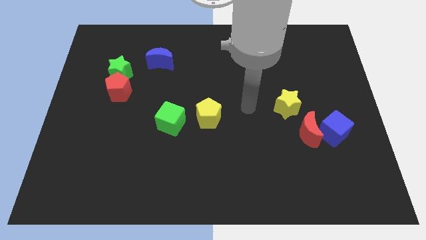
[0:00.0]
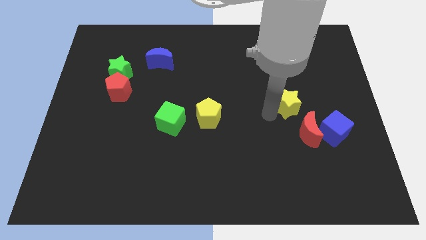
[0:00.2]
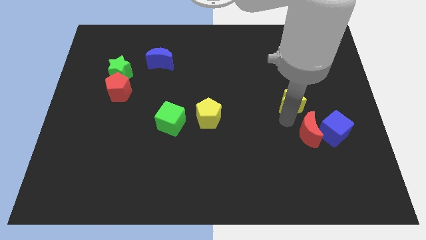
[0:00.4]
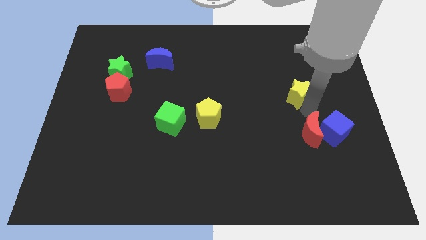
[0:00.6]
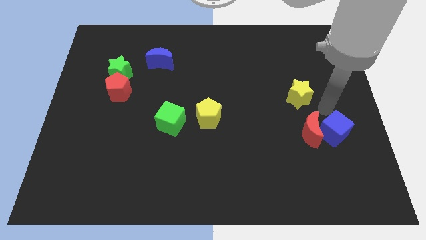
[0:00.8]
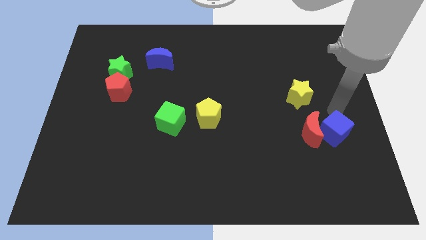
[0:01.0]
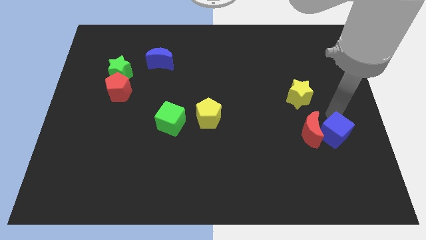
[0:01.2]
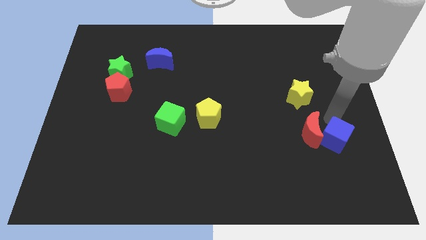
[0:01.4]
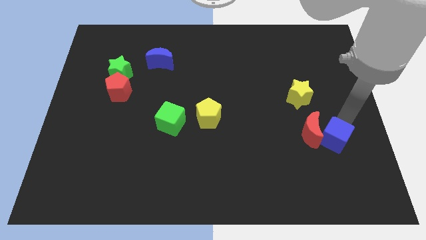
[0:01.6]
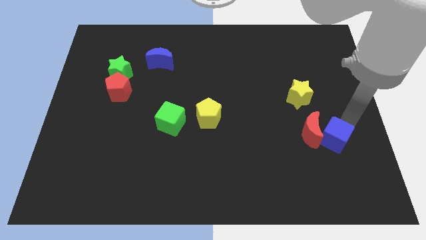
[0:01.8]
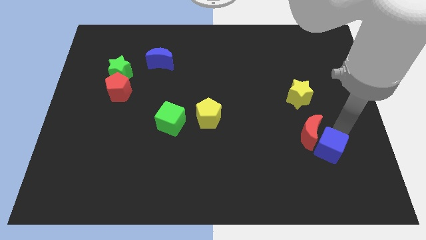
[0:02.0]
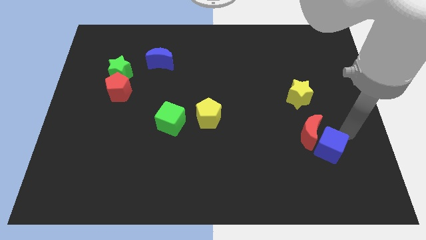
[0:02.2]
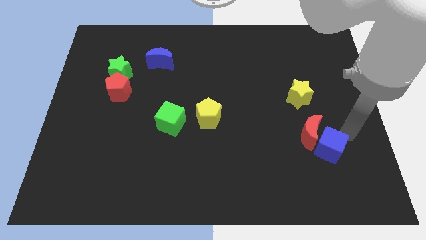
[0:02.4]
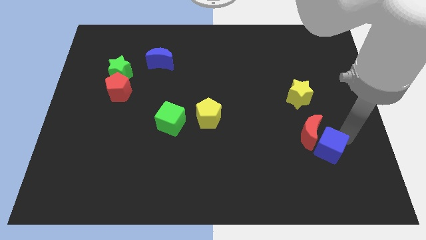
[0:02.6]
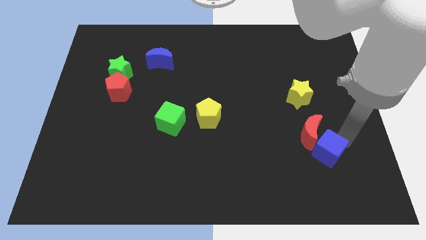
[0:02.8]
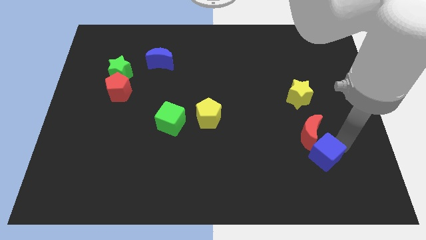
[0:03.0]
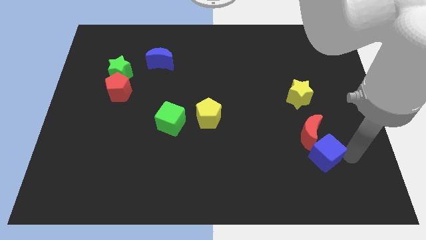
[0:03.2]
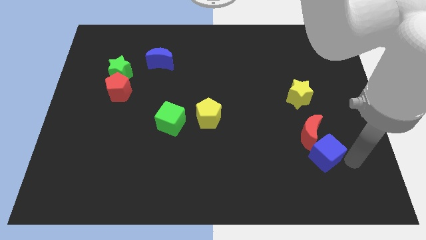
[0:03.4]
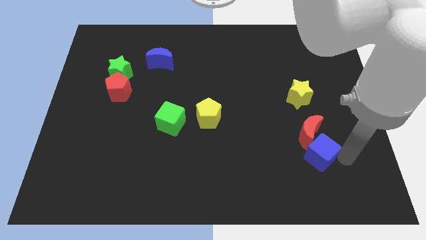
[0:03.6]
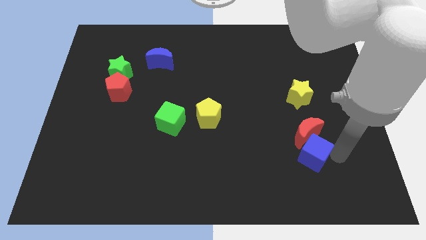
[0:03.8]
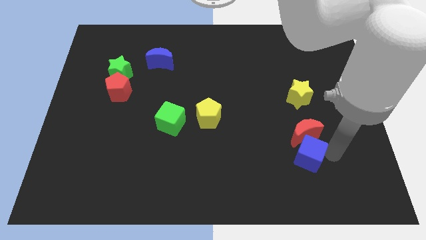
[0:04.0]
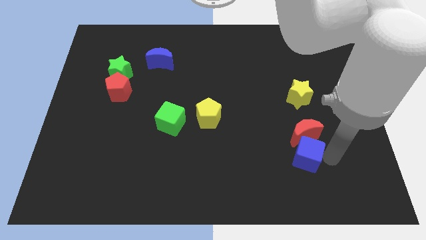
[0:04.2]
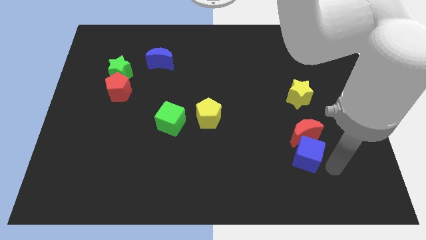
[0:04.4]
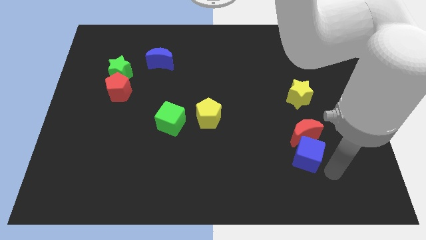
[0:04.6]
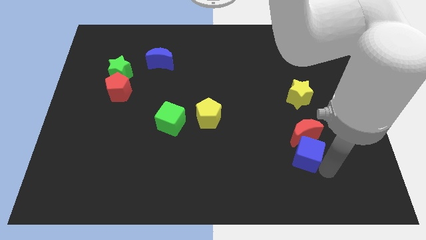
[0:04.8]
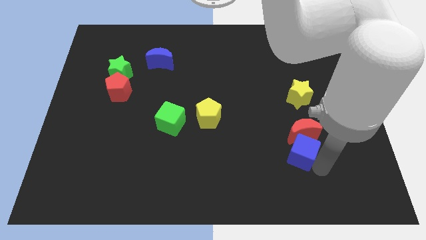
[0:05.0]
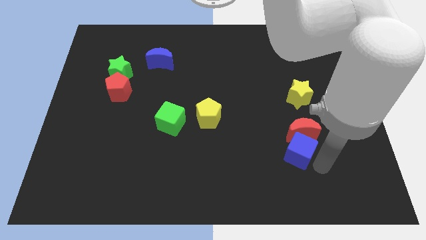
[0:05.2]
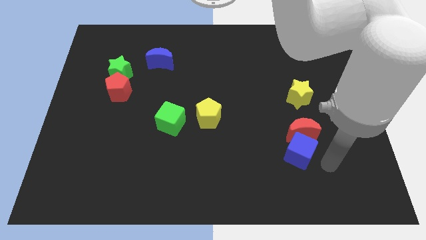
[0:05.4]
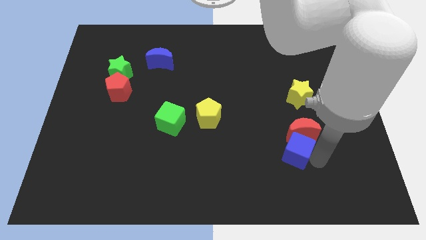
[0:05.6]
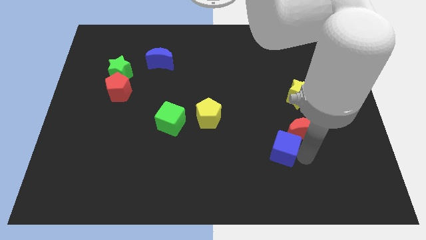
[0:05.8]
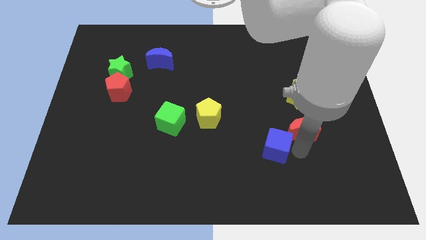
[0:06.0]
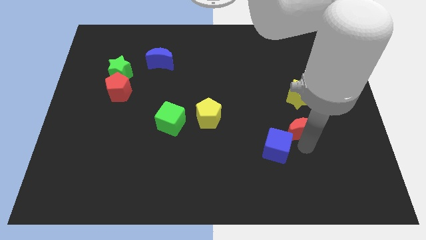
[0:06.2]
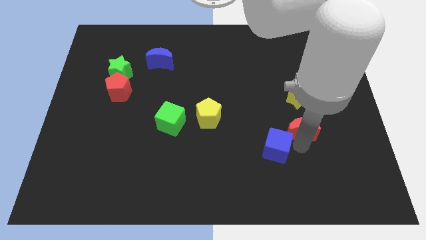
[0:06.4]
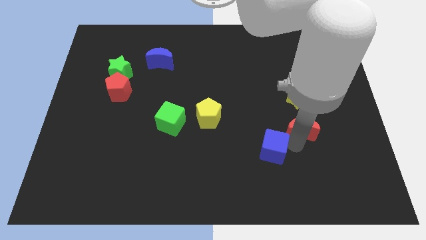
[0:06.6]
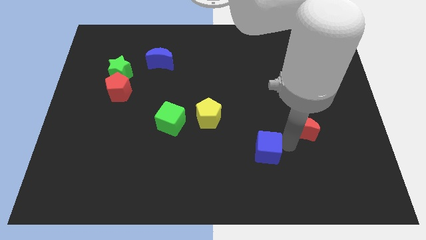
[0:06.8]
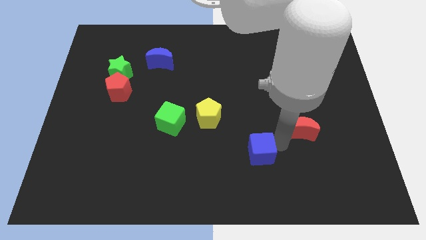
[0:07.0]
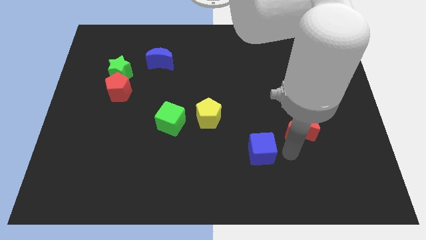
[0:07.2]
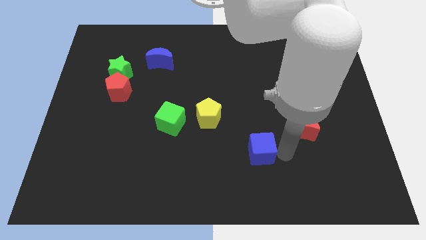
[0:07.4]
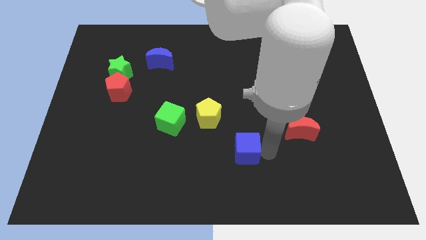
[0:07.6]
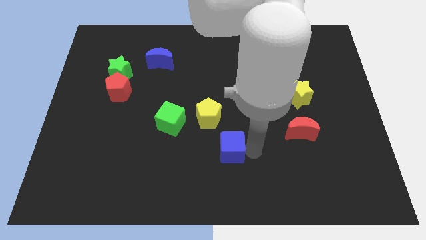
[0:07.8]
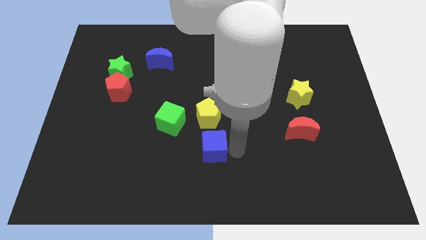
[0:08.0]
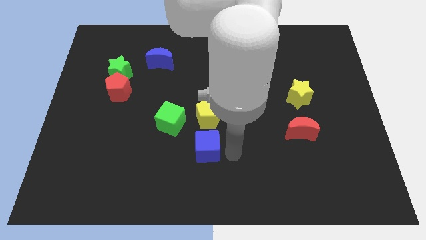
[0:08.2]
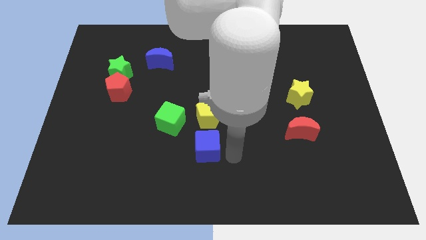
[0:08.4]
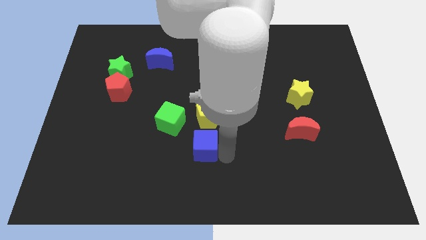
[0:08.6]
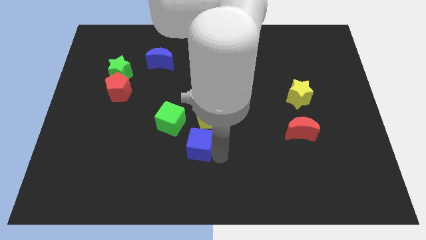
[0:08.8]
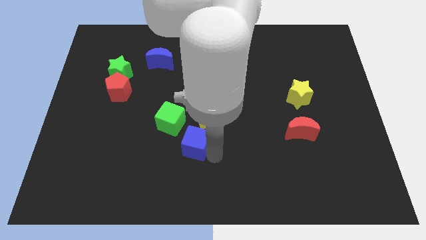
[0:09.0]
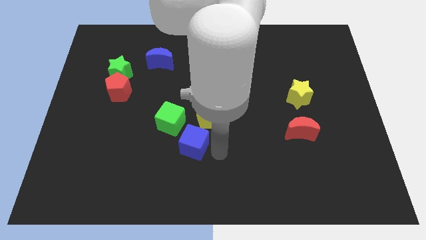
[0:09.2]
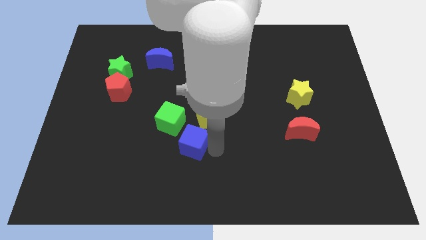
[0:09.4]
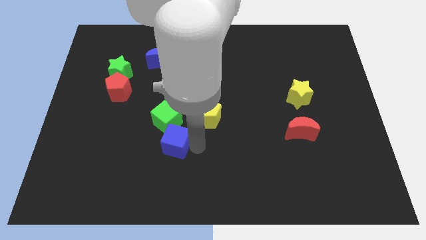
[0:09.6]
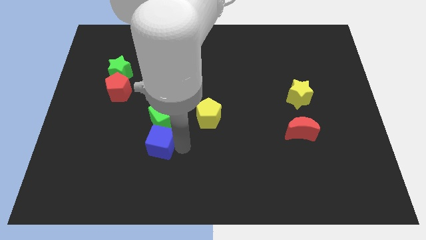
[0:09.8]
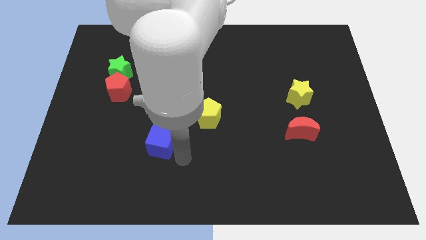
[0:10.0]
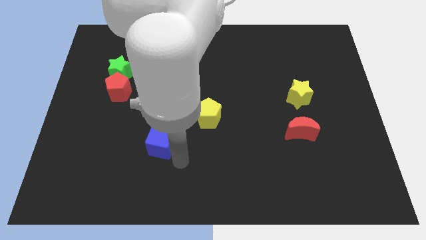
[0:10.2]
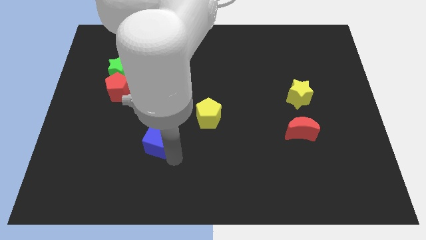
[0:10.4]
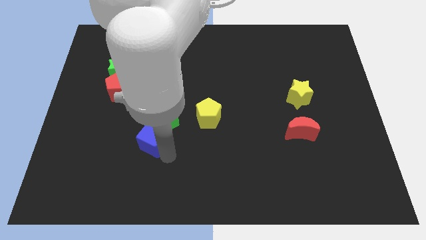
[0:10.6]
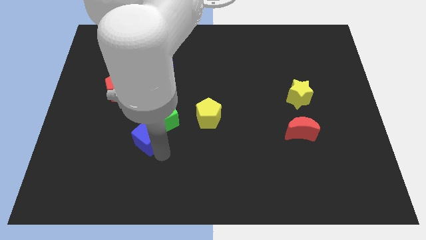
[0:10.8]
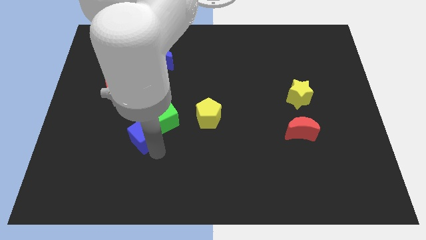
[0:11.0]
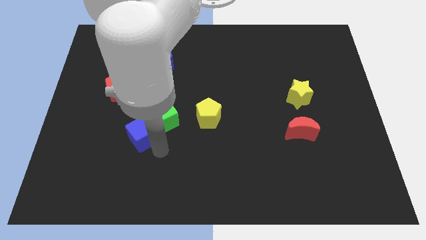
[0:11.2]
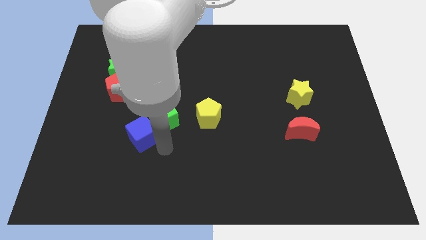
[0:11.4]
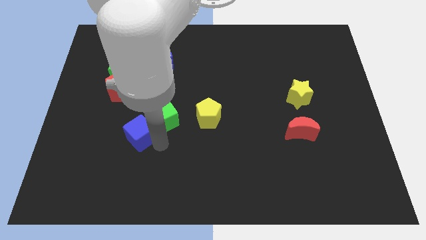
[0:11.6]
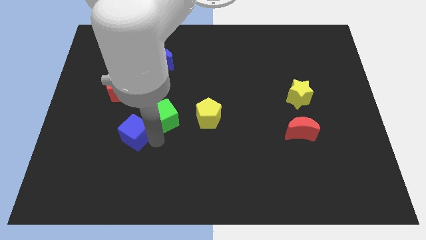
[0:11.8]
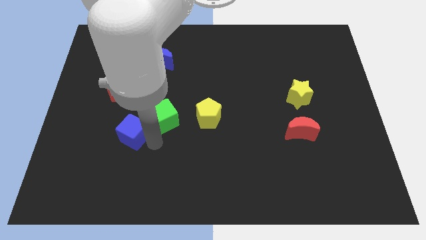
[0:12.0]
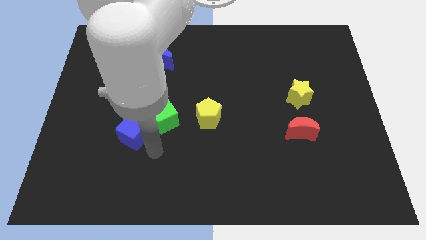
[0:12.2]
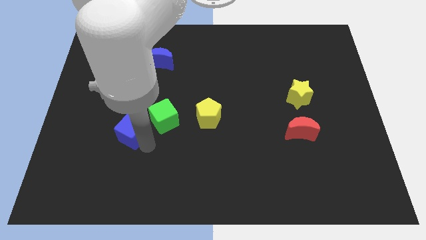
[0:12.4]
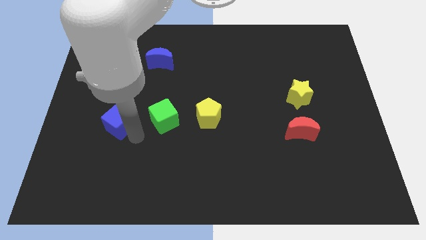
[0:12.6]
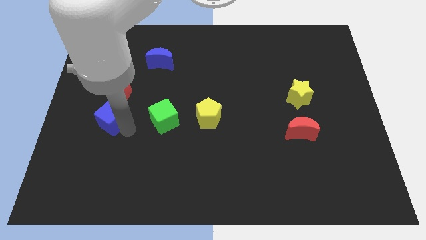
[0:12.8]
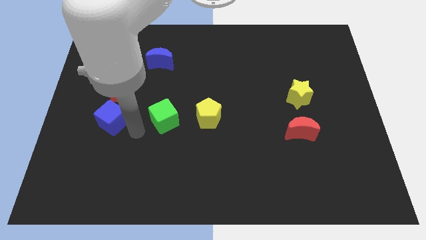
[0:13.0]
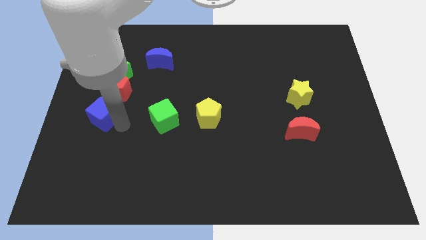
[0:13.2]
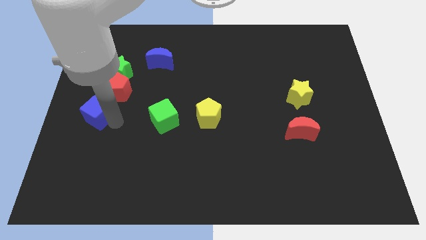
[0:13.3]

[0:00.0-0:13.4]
move the blue cube to the left side of the board
